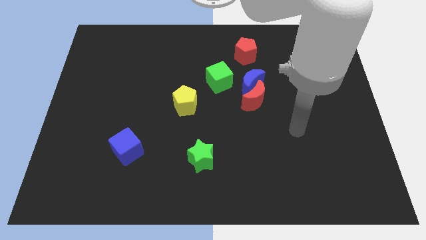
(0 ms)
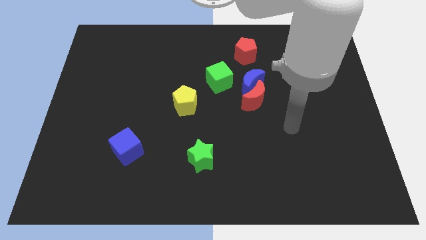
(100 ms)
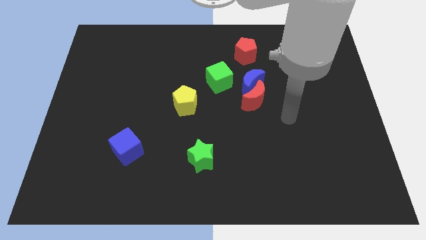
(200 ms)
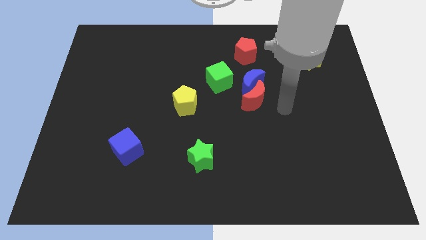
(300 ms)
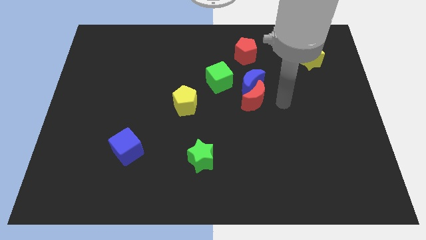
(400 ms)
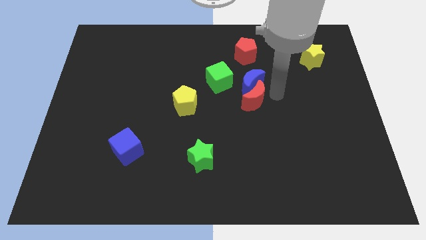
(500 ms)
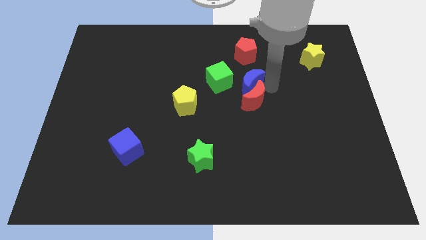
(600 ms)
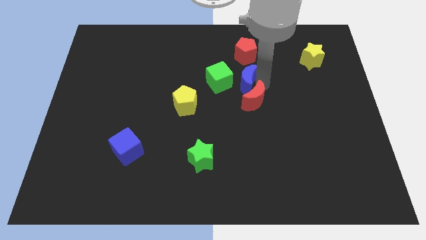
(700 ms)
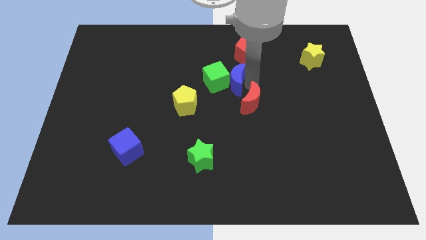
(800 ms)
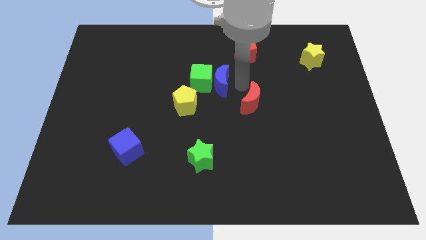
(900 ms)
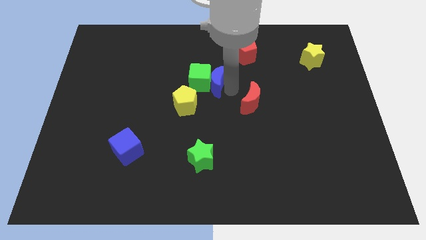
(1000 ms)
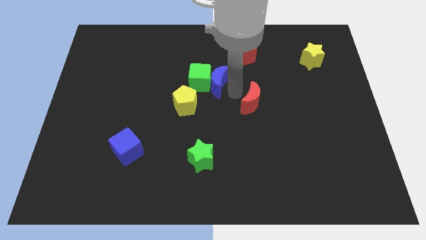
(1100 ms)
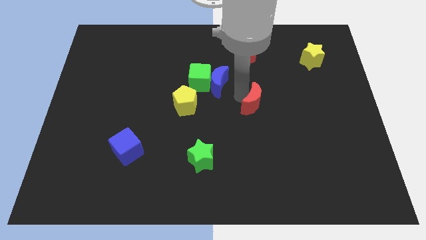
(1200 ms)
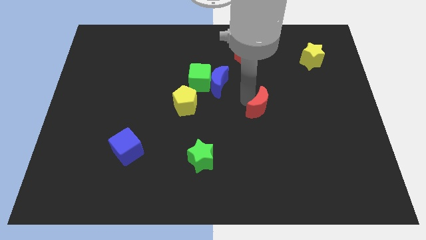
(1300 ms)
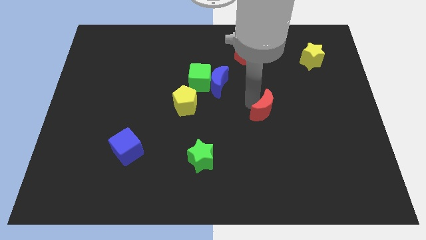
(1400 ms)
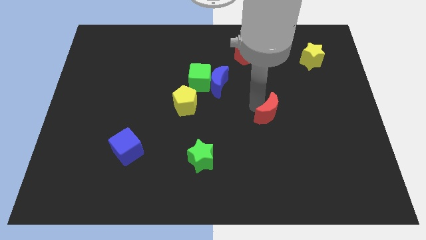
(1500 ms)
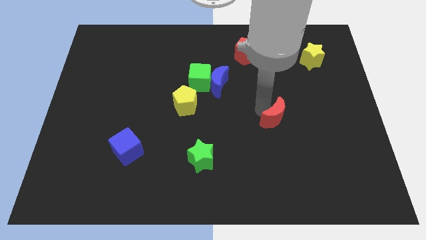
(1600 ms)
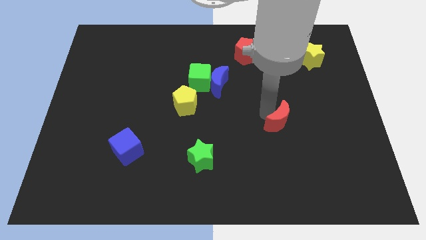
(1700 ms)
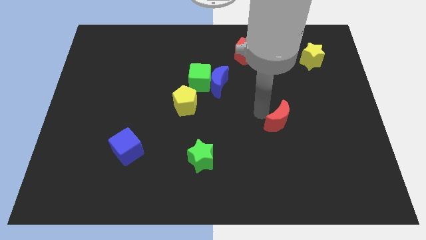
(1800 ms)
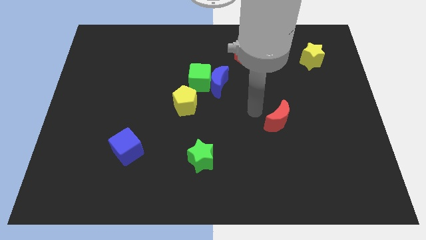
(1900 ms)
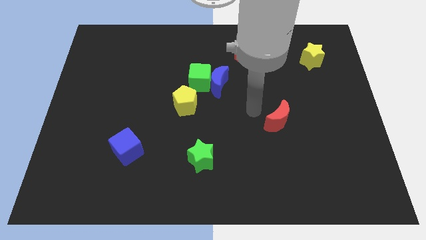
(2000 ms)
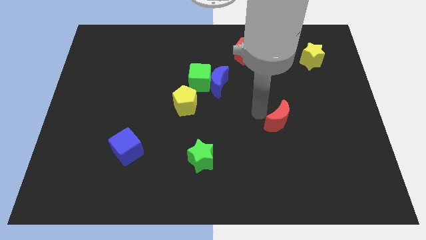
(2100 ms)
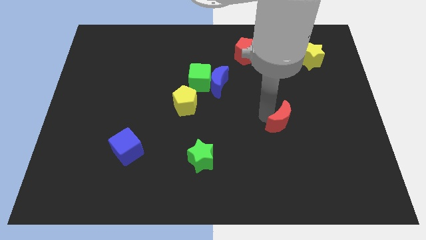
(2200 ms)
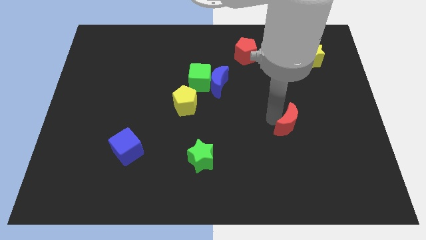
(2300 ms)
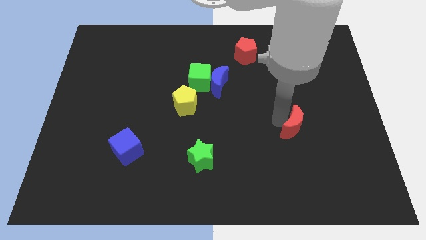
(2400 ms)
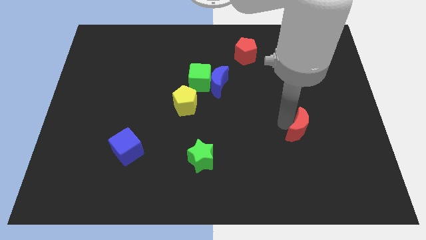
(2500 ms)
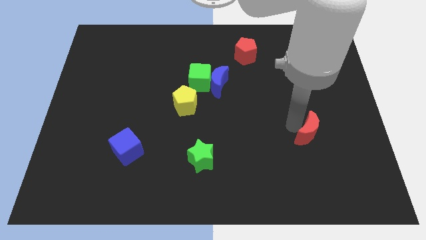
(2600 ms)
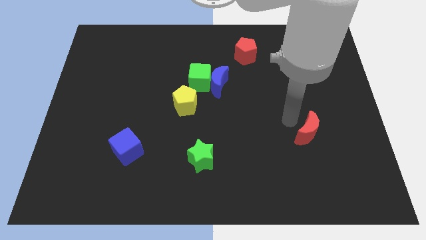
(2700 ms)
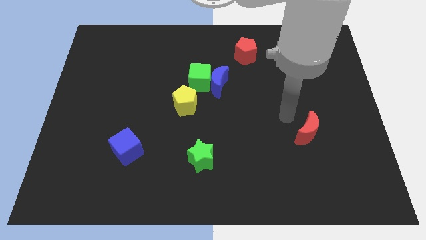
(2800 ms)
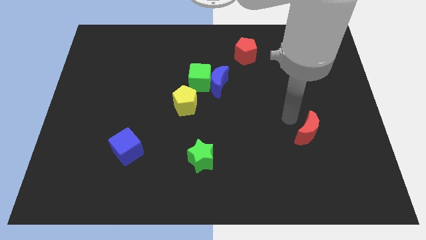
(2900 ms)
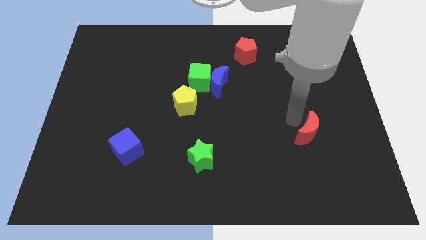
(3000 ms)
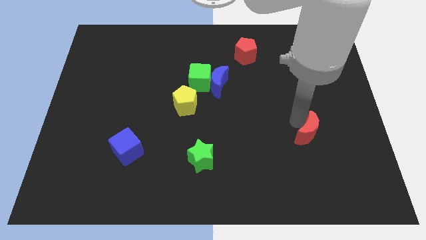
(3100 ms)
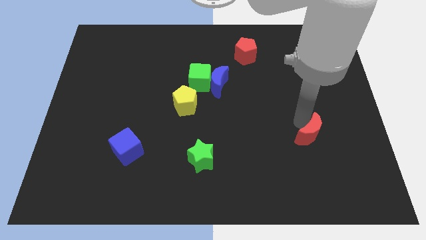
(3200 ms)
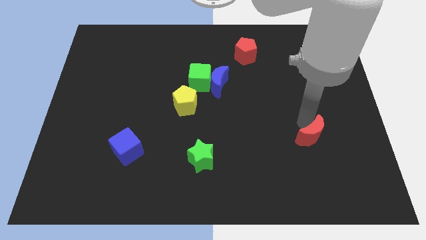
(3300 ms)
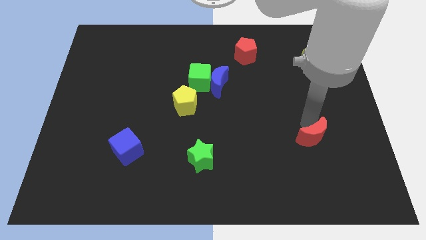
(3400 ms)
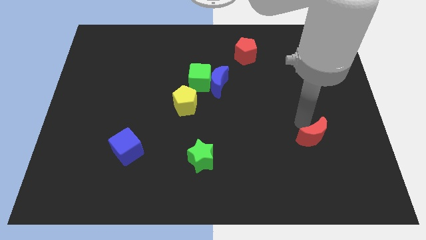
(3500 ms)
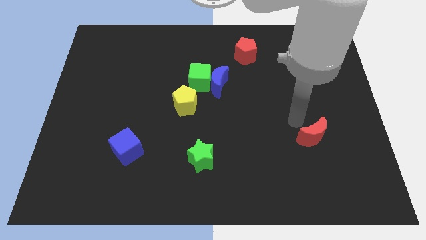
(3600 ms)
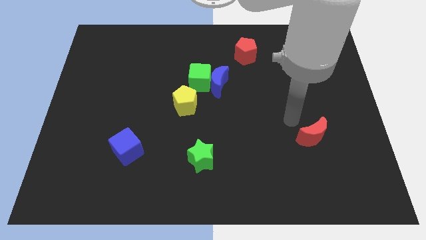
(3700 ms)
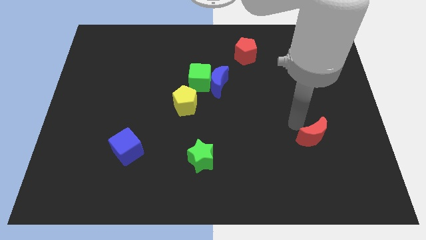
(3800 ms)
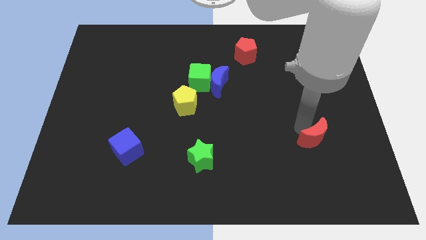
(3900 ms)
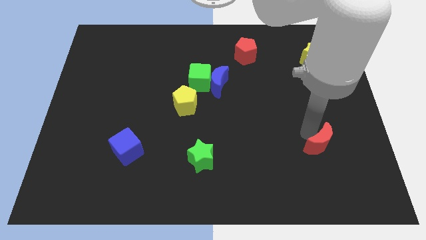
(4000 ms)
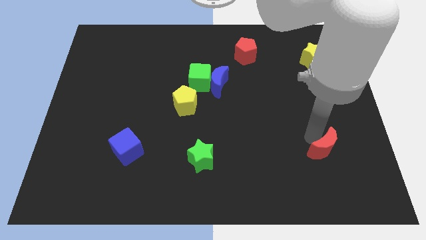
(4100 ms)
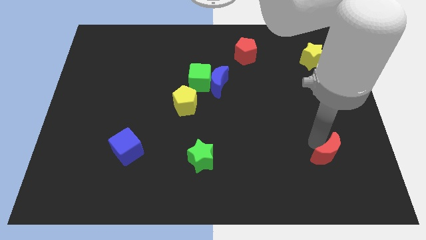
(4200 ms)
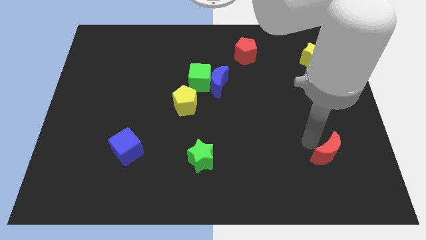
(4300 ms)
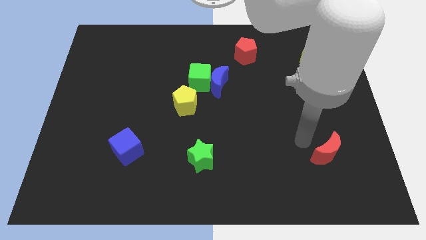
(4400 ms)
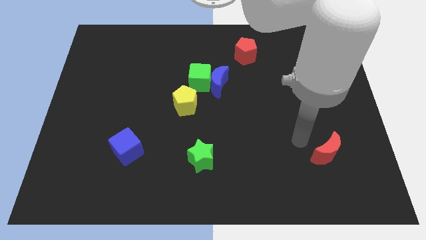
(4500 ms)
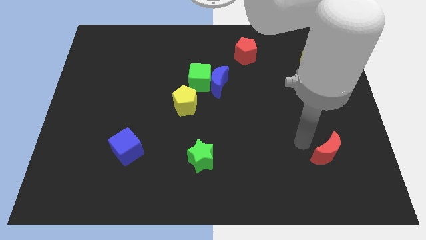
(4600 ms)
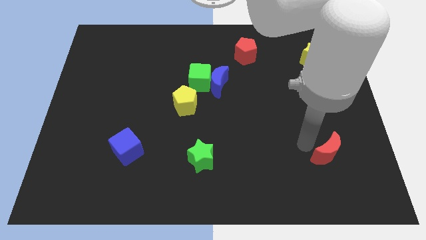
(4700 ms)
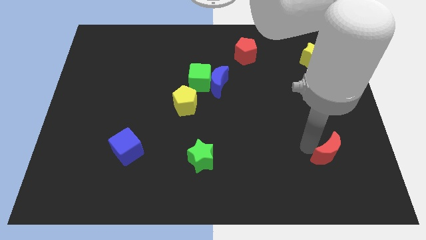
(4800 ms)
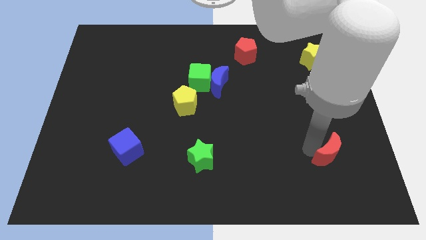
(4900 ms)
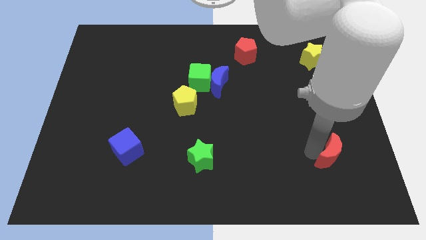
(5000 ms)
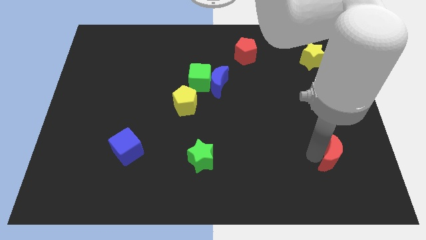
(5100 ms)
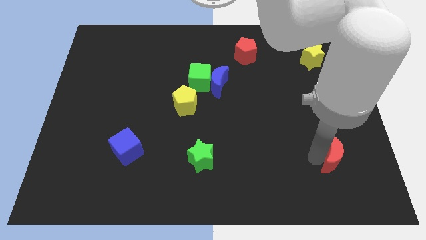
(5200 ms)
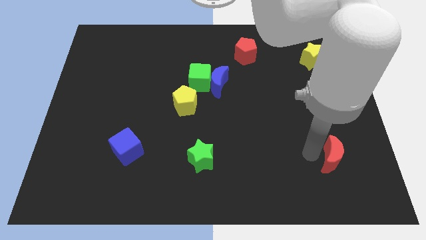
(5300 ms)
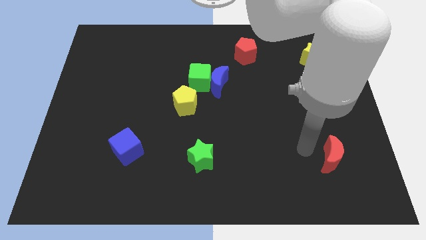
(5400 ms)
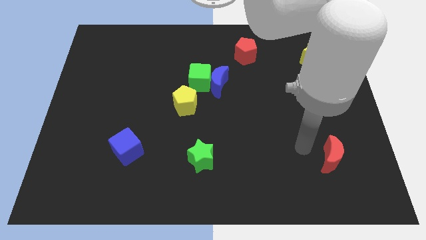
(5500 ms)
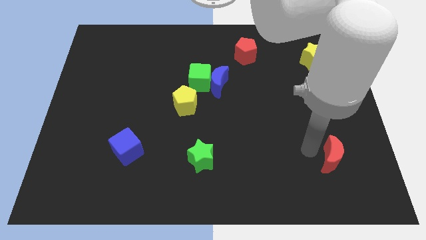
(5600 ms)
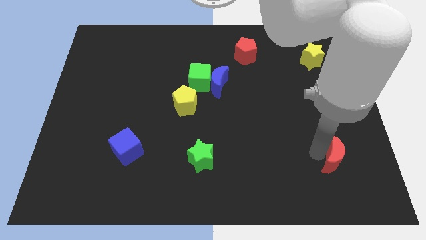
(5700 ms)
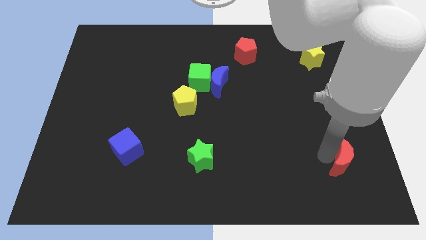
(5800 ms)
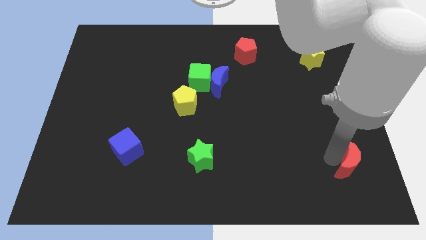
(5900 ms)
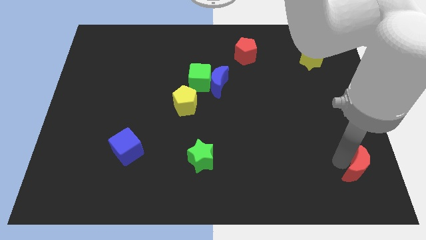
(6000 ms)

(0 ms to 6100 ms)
push the red moon to the bottom right corner

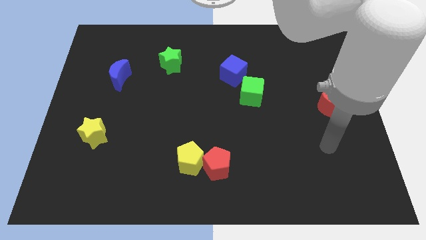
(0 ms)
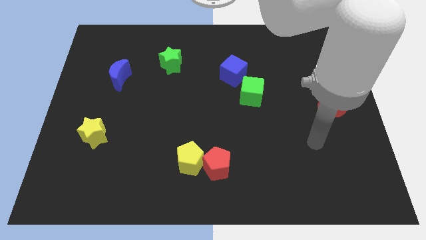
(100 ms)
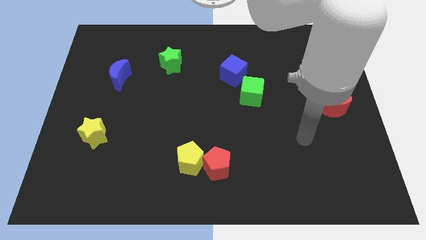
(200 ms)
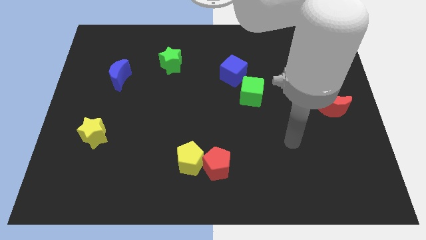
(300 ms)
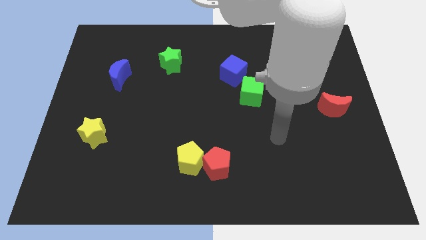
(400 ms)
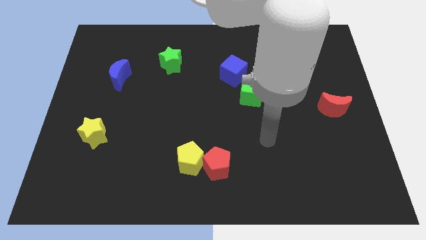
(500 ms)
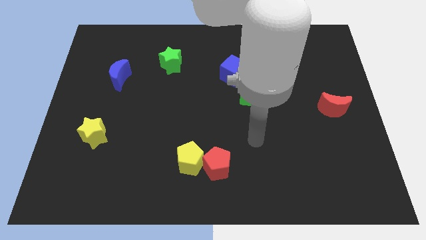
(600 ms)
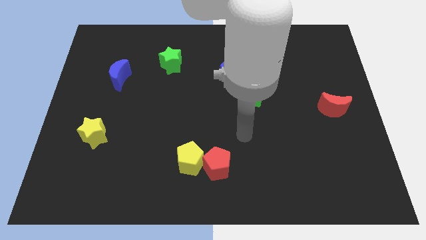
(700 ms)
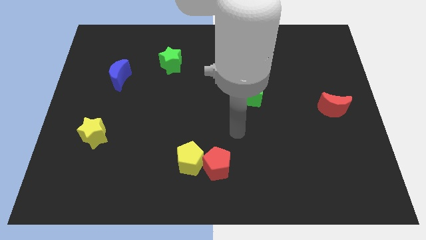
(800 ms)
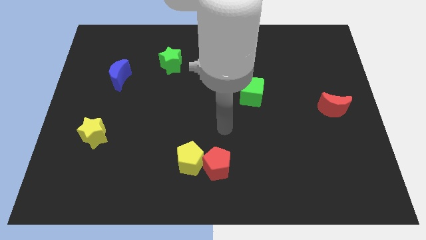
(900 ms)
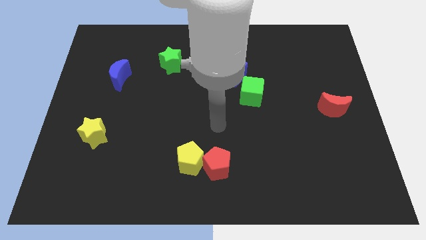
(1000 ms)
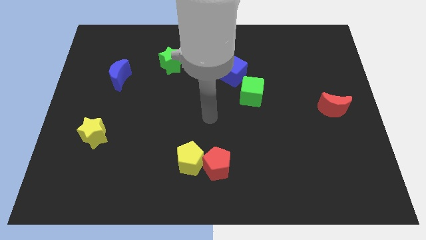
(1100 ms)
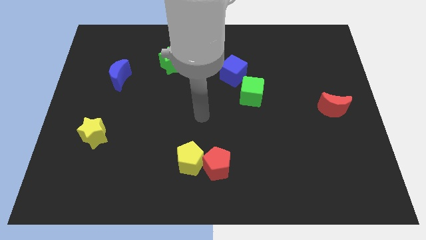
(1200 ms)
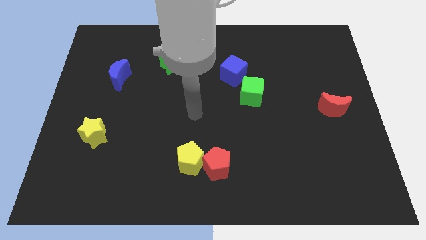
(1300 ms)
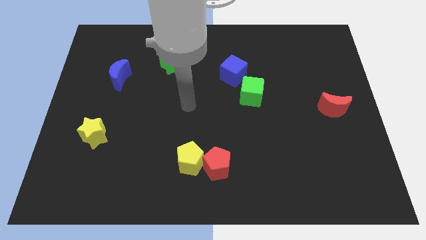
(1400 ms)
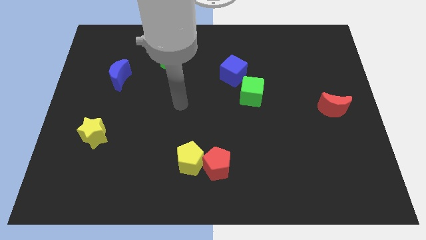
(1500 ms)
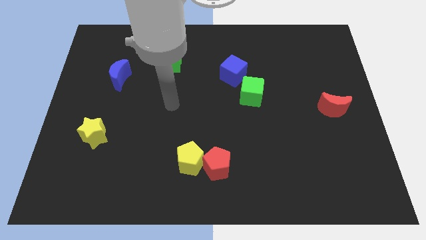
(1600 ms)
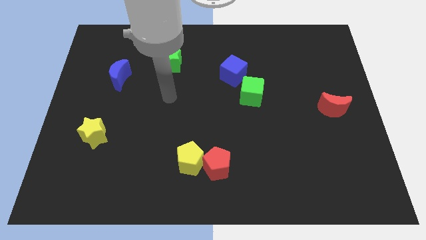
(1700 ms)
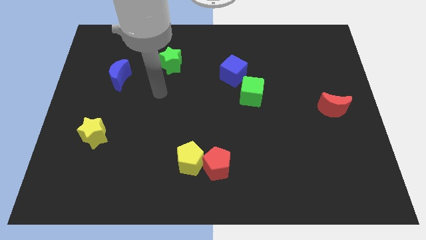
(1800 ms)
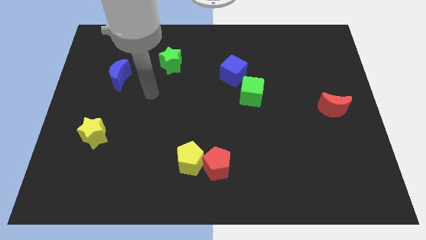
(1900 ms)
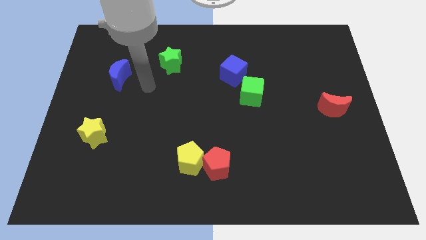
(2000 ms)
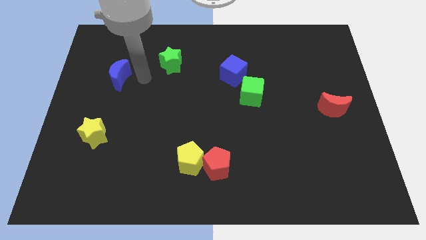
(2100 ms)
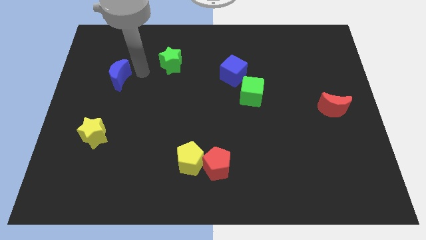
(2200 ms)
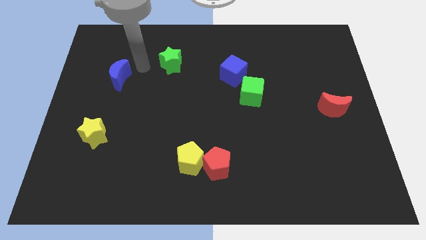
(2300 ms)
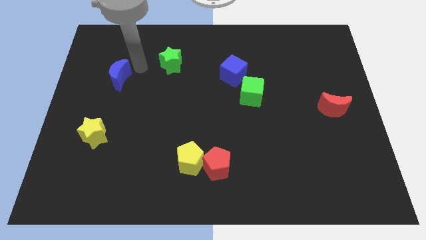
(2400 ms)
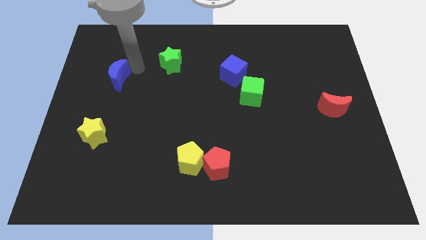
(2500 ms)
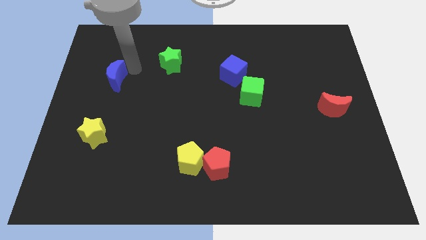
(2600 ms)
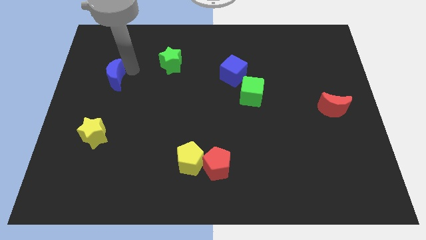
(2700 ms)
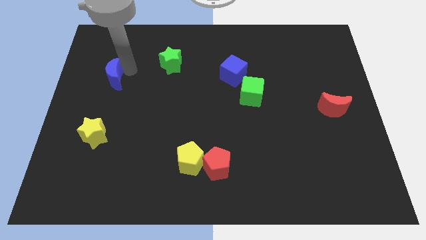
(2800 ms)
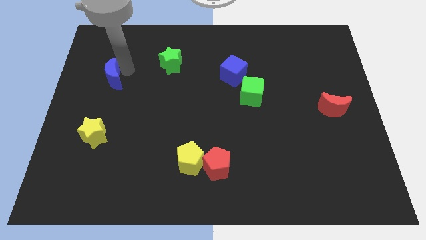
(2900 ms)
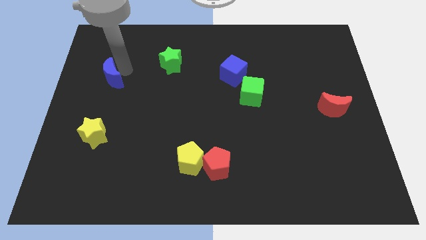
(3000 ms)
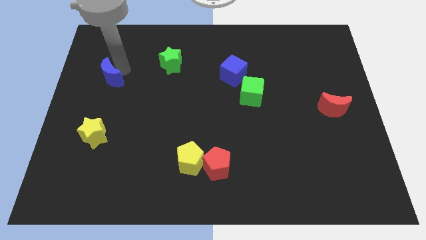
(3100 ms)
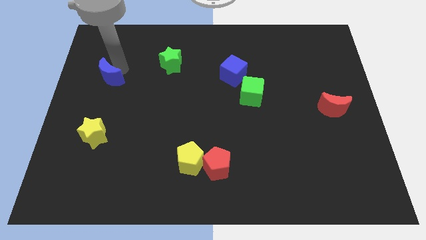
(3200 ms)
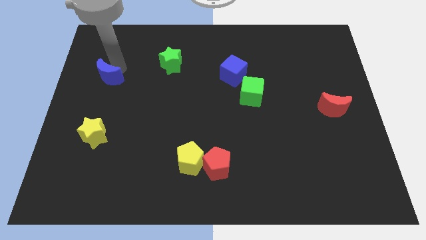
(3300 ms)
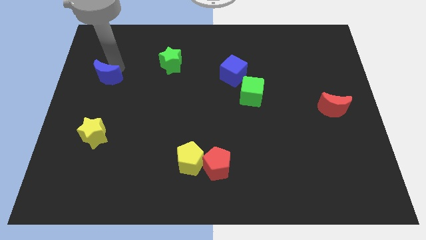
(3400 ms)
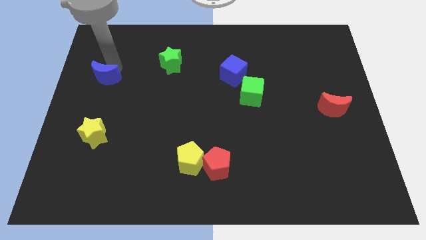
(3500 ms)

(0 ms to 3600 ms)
push the blue moon to the left side of the board
